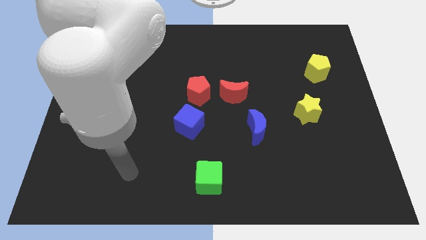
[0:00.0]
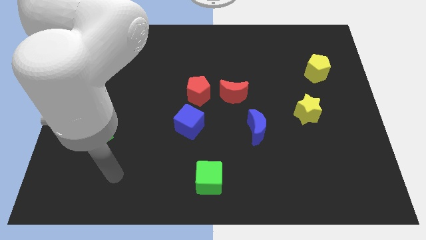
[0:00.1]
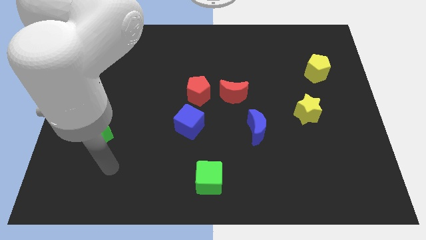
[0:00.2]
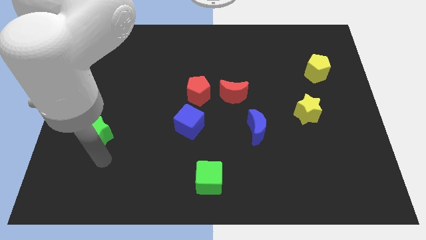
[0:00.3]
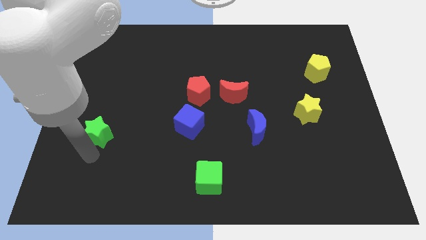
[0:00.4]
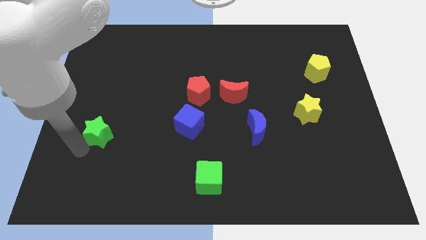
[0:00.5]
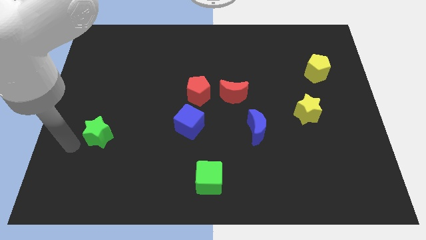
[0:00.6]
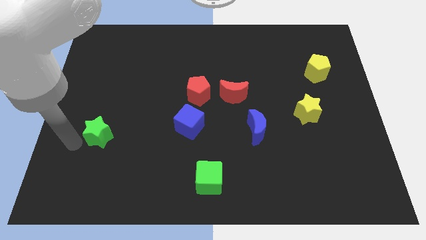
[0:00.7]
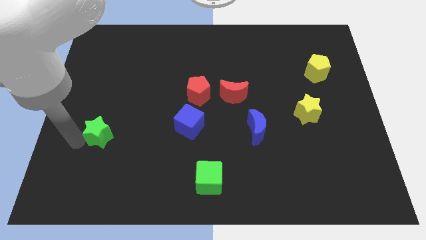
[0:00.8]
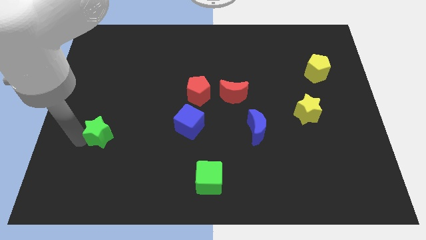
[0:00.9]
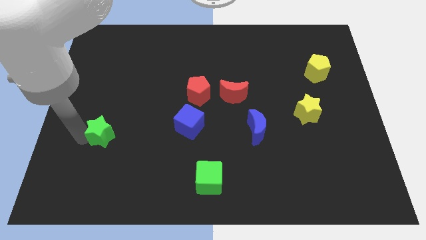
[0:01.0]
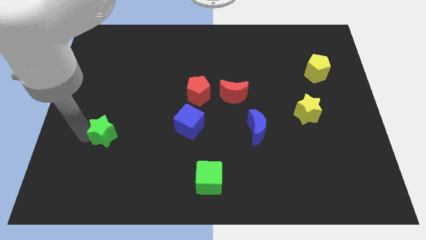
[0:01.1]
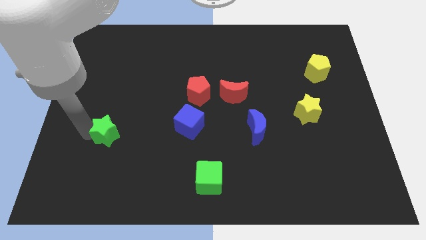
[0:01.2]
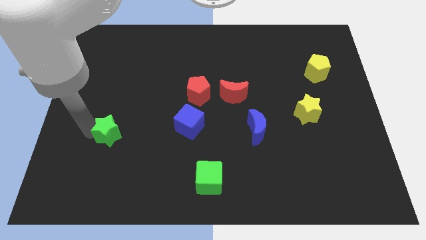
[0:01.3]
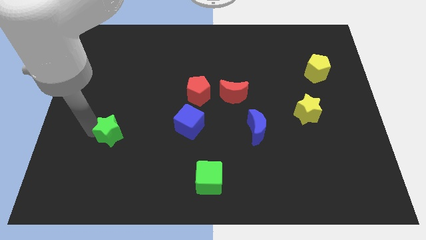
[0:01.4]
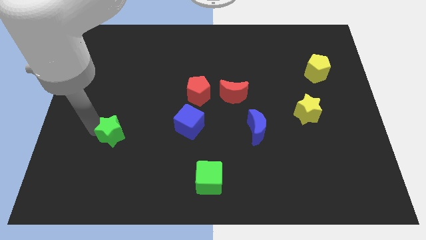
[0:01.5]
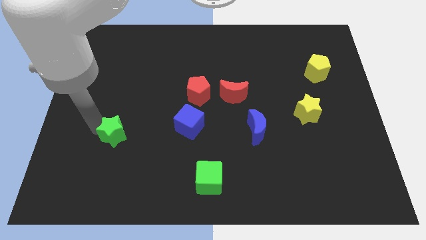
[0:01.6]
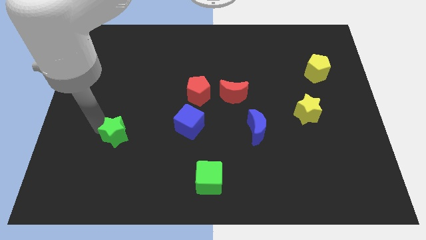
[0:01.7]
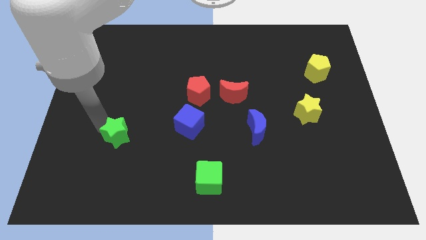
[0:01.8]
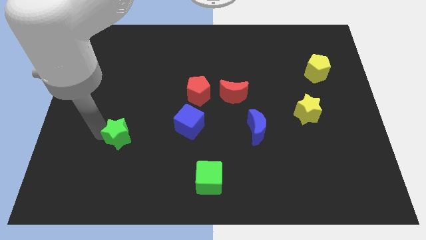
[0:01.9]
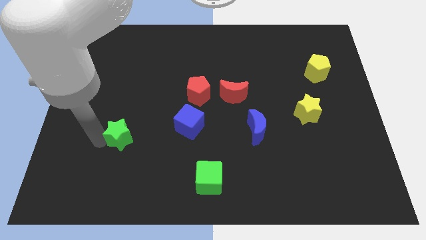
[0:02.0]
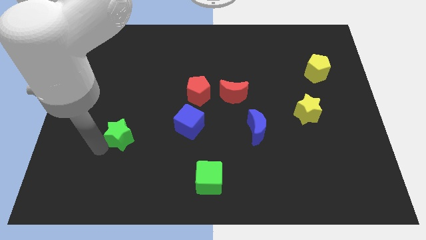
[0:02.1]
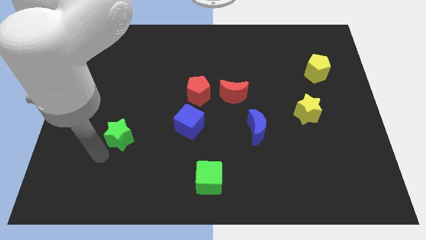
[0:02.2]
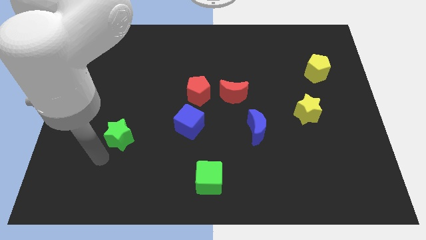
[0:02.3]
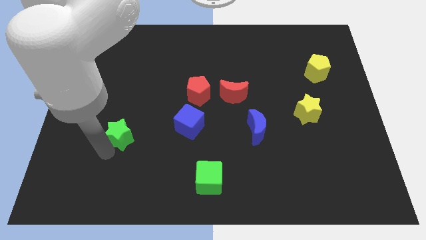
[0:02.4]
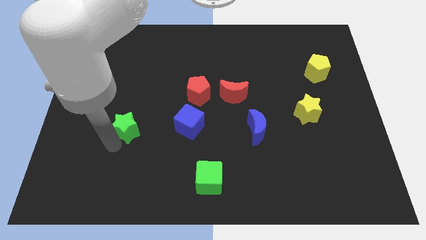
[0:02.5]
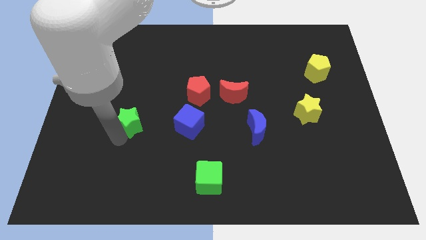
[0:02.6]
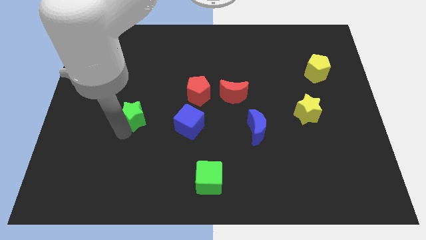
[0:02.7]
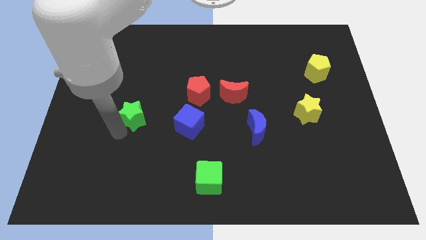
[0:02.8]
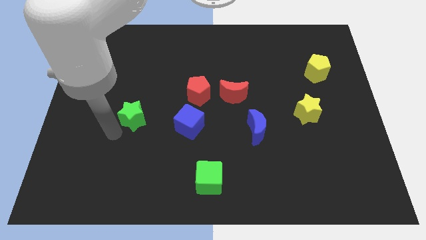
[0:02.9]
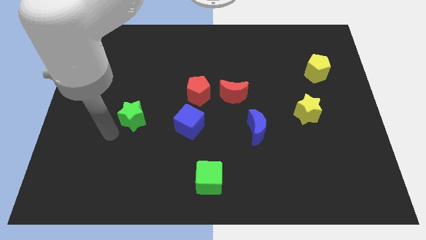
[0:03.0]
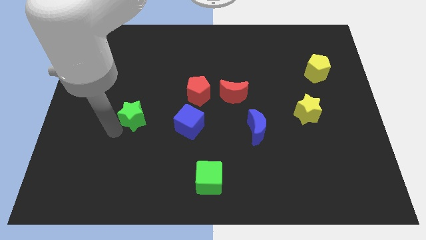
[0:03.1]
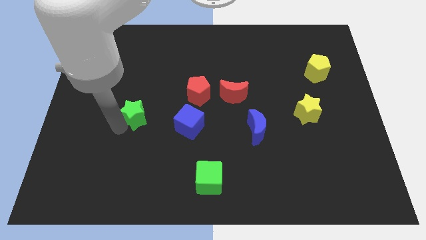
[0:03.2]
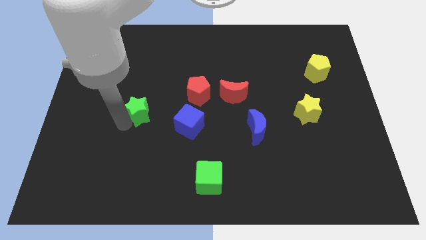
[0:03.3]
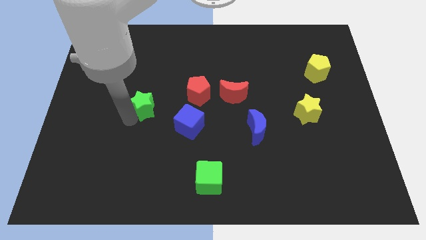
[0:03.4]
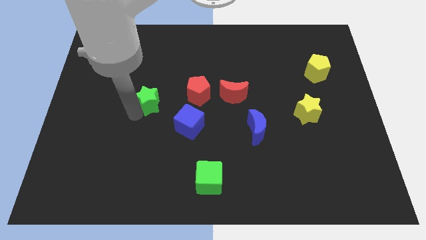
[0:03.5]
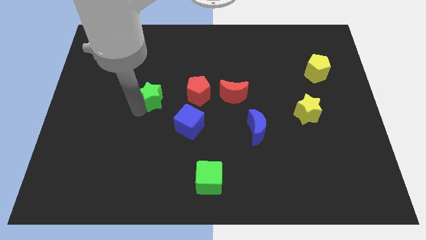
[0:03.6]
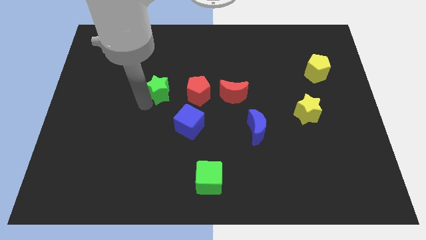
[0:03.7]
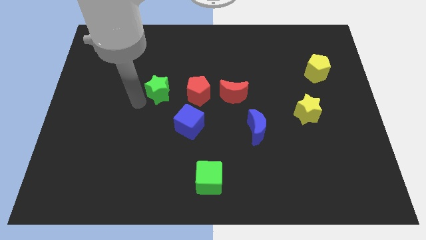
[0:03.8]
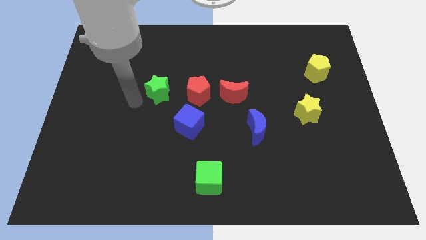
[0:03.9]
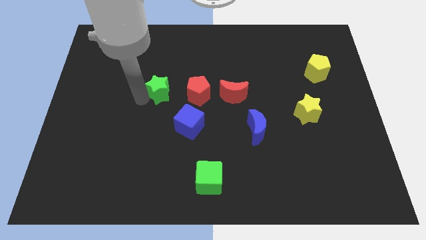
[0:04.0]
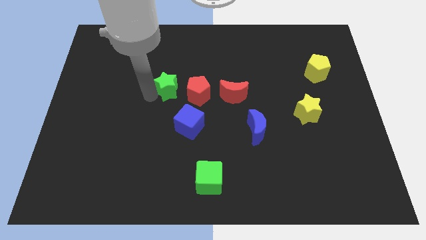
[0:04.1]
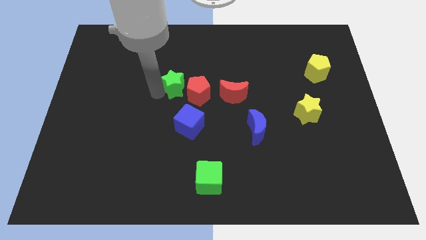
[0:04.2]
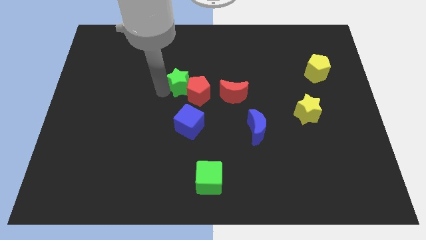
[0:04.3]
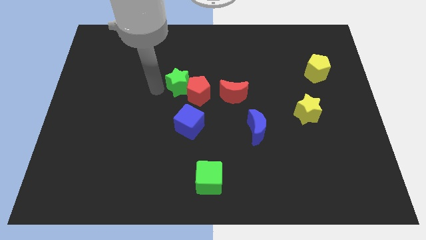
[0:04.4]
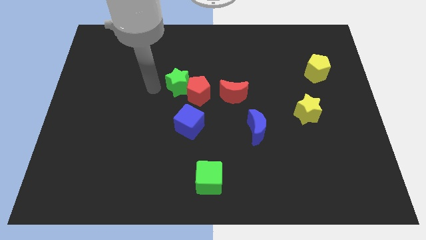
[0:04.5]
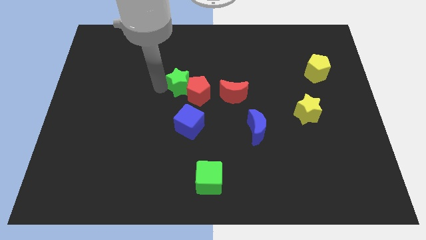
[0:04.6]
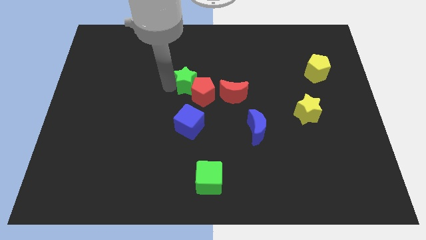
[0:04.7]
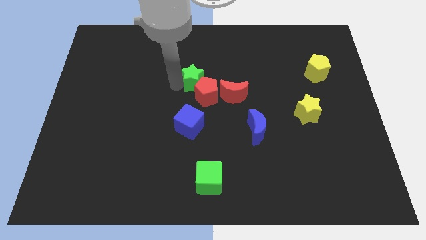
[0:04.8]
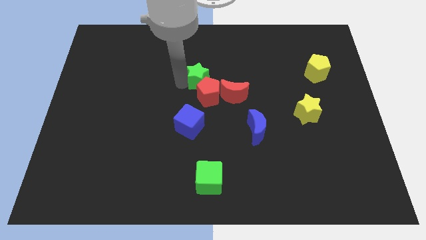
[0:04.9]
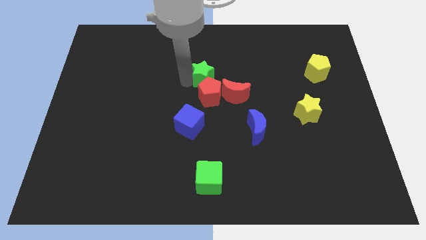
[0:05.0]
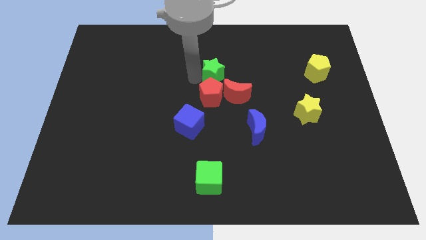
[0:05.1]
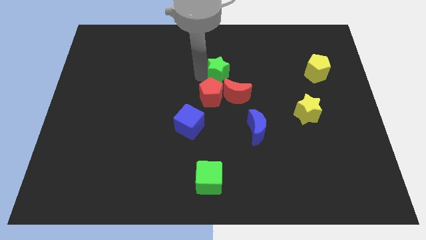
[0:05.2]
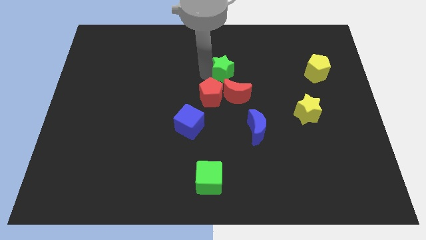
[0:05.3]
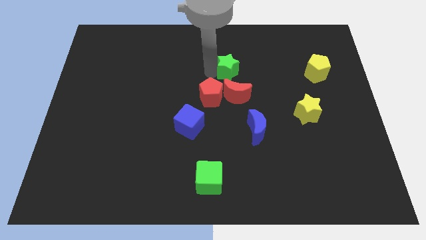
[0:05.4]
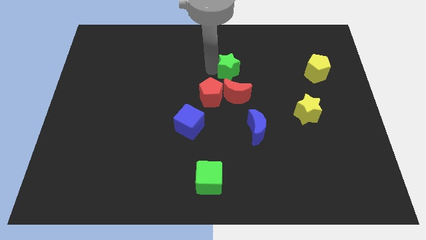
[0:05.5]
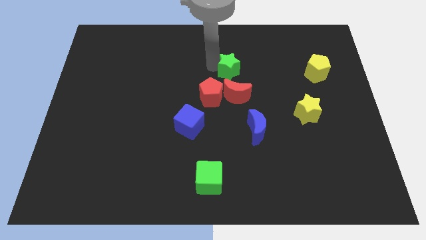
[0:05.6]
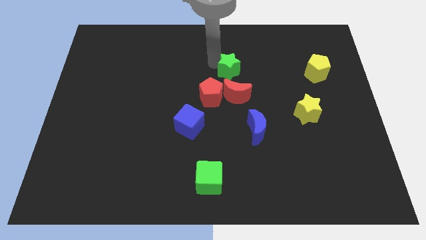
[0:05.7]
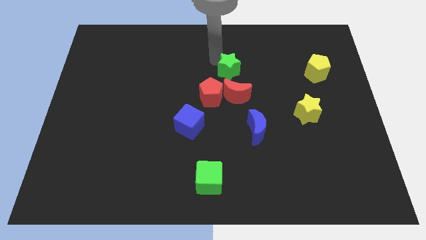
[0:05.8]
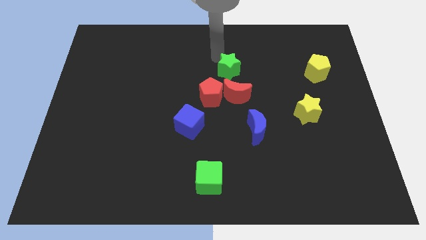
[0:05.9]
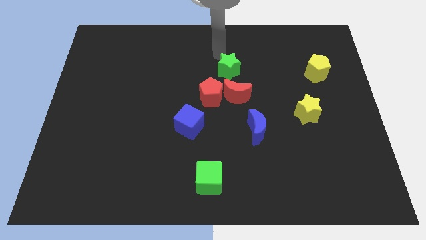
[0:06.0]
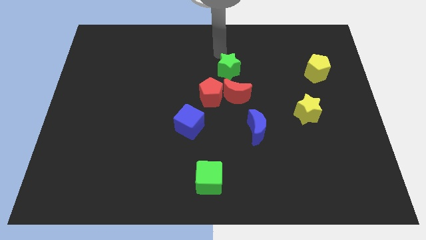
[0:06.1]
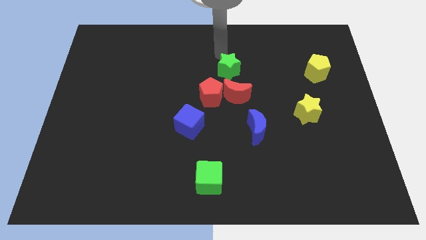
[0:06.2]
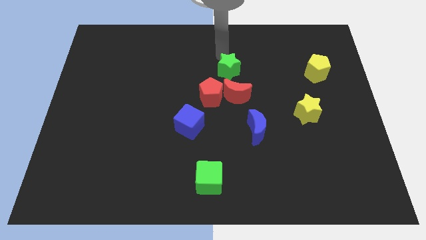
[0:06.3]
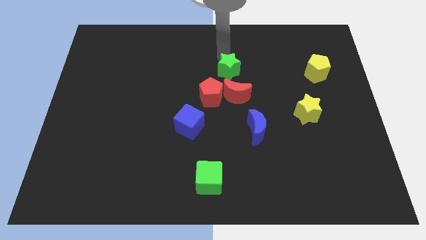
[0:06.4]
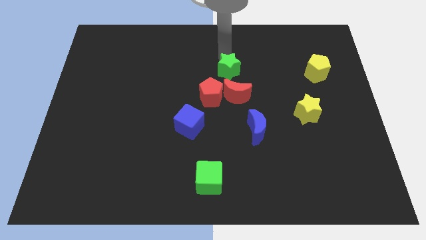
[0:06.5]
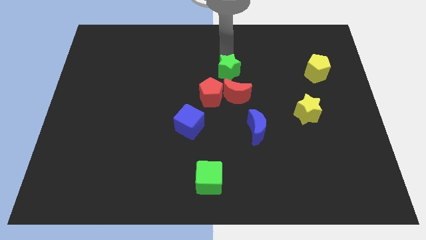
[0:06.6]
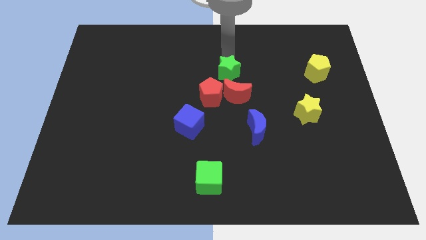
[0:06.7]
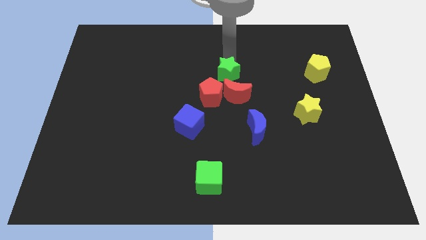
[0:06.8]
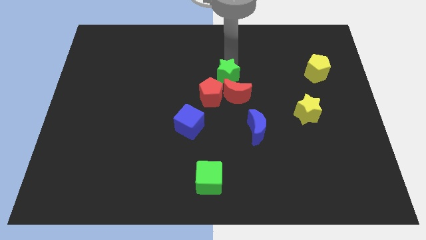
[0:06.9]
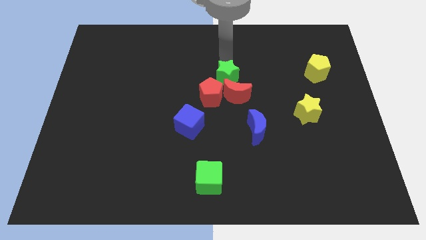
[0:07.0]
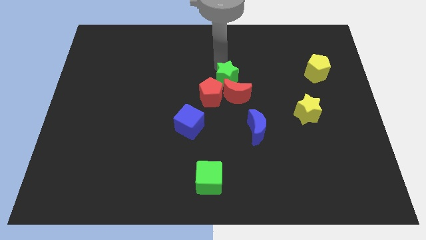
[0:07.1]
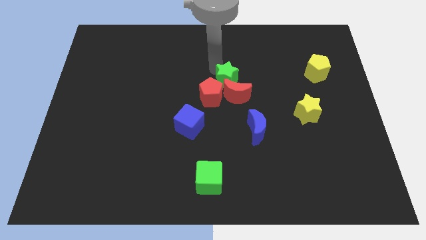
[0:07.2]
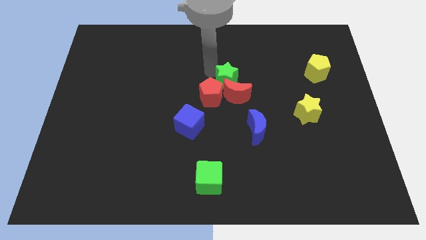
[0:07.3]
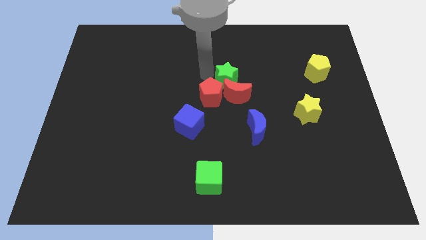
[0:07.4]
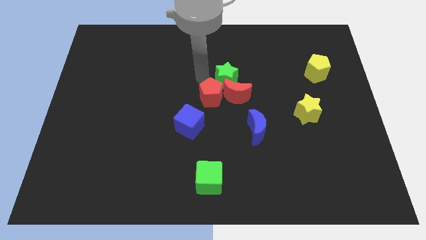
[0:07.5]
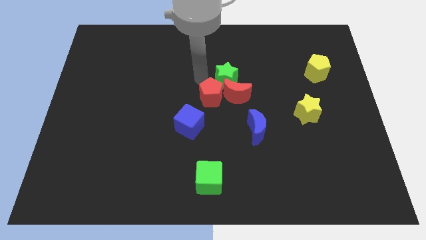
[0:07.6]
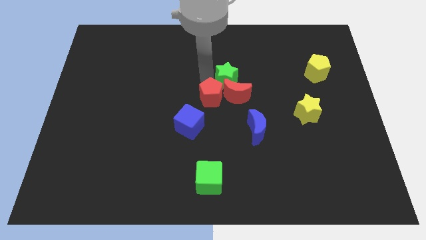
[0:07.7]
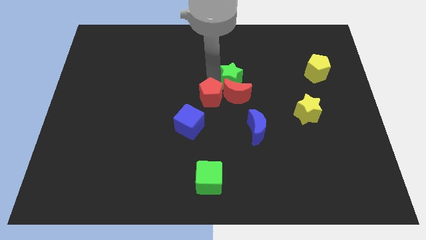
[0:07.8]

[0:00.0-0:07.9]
move the green star to the top right side of the red moon
